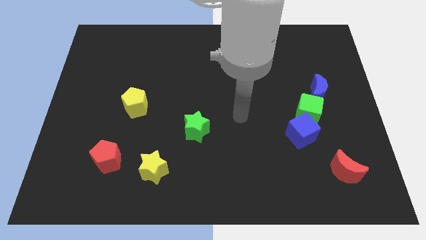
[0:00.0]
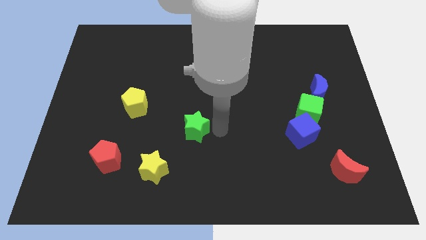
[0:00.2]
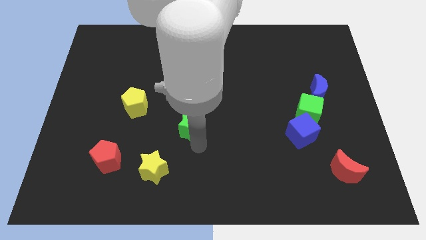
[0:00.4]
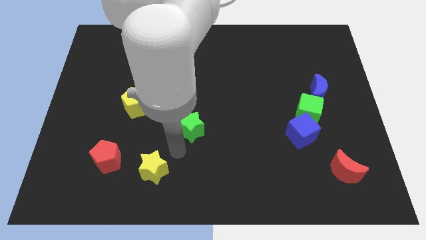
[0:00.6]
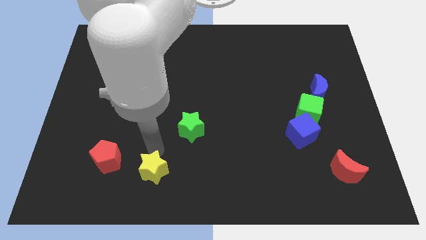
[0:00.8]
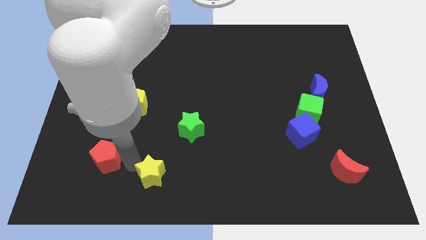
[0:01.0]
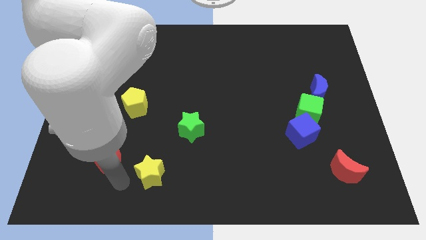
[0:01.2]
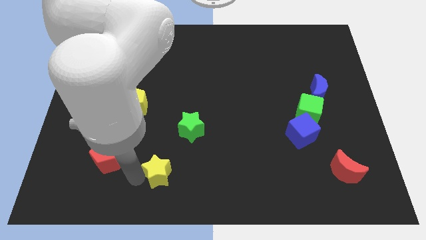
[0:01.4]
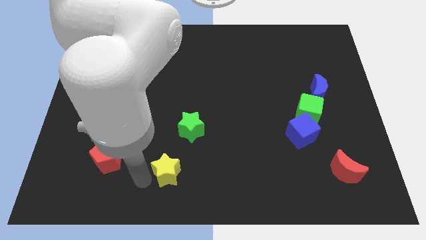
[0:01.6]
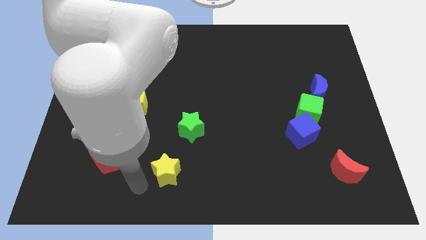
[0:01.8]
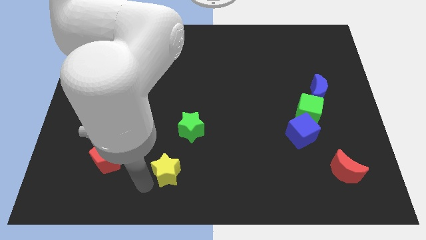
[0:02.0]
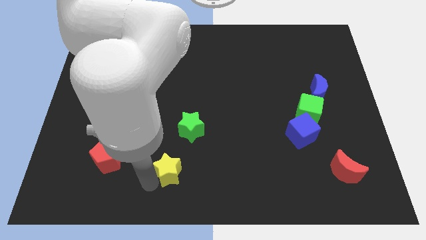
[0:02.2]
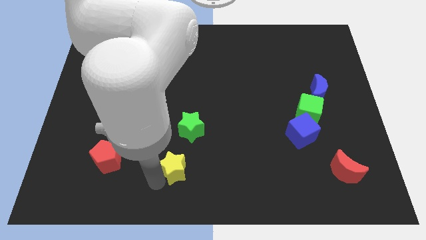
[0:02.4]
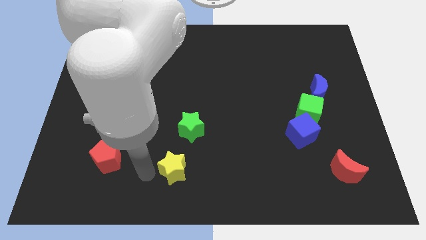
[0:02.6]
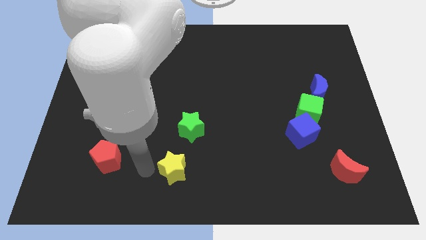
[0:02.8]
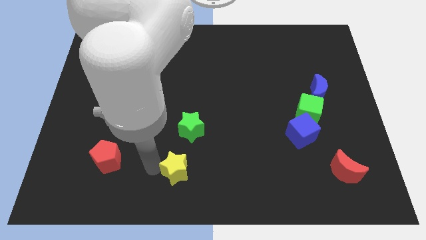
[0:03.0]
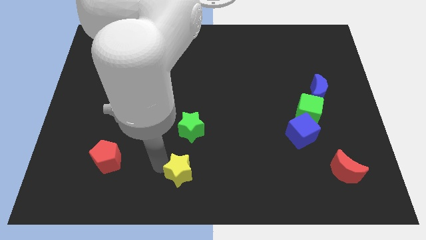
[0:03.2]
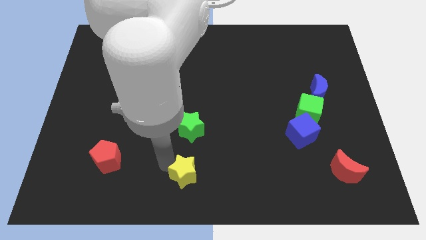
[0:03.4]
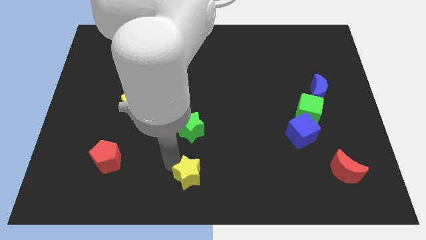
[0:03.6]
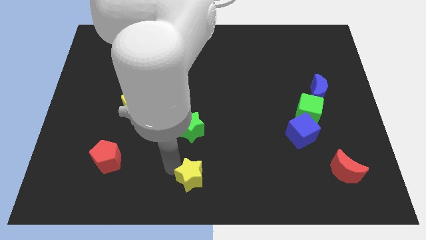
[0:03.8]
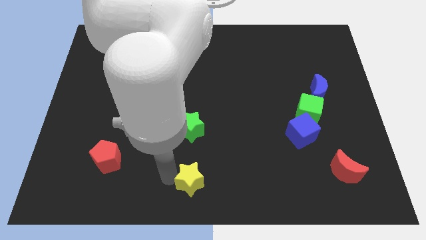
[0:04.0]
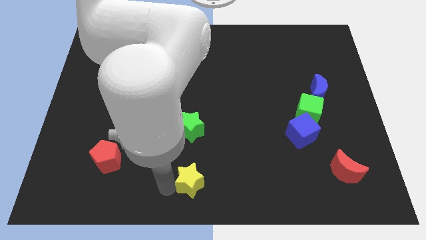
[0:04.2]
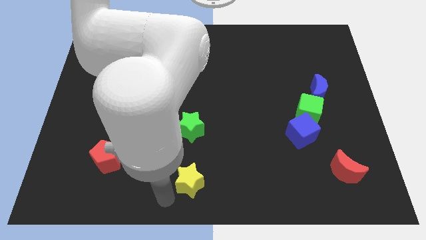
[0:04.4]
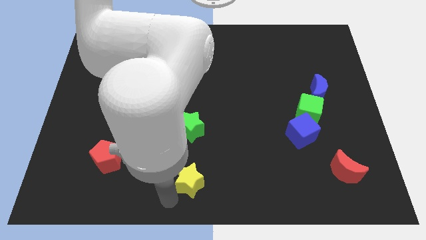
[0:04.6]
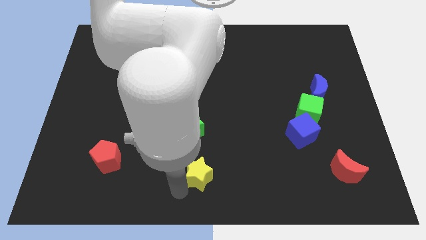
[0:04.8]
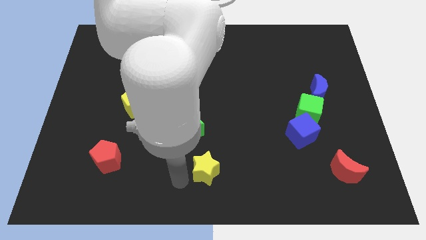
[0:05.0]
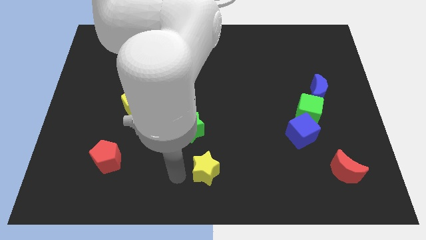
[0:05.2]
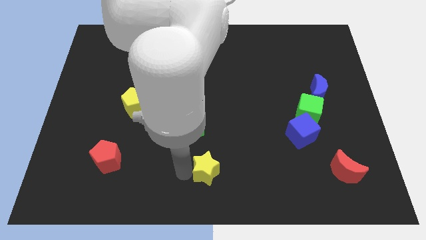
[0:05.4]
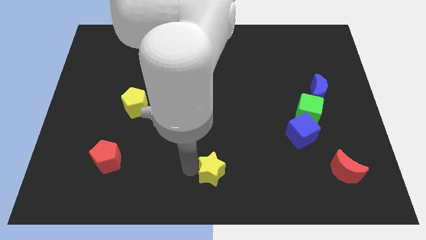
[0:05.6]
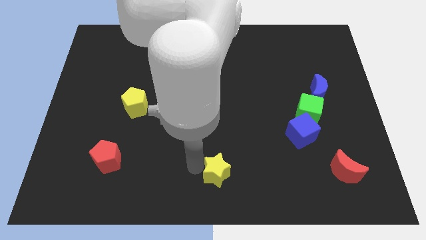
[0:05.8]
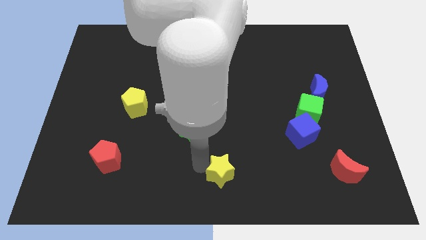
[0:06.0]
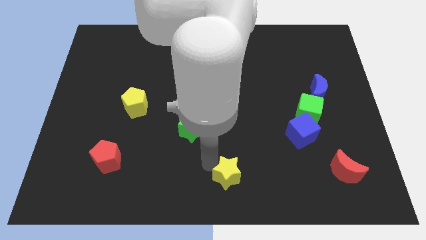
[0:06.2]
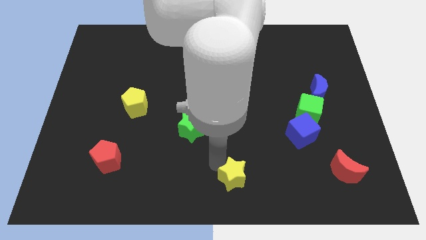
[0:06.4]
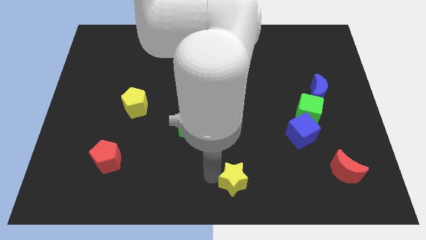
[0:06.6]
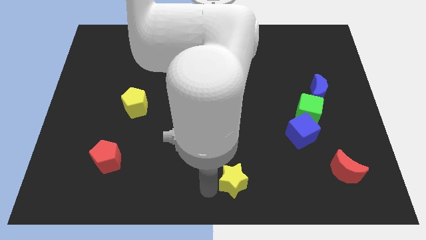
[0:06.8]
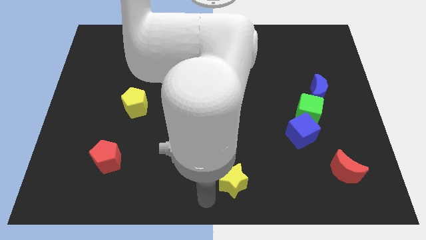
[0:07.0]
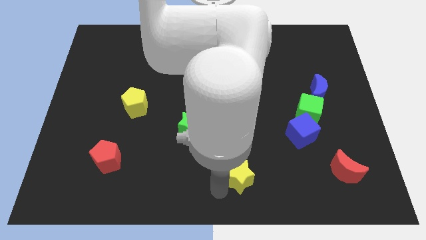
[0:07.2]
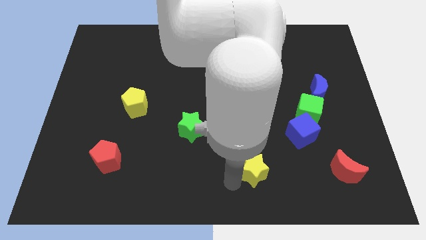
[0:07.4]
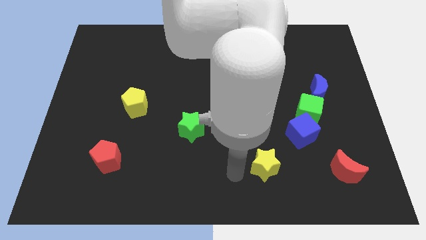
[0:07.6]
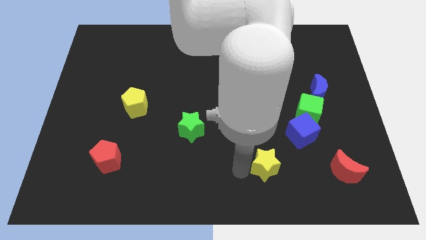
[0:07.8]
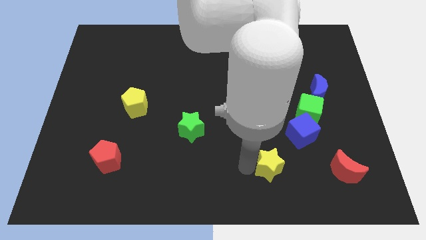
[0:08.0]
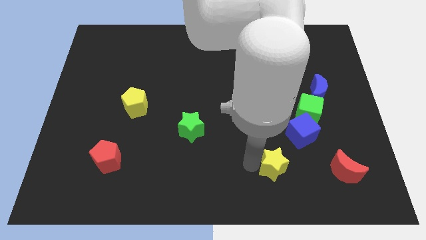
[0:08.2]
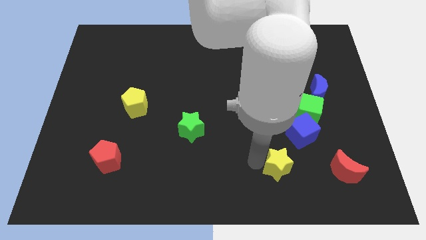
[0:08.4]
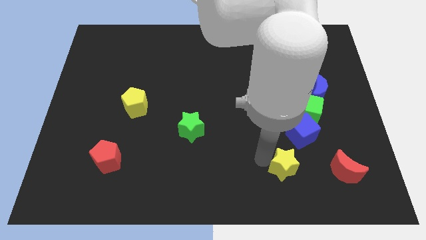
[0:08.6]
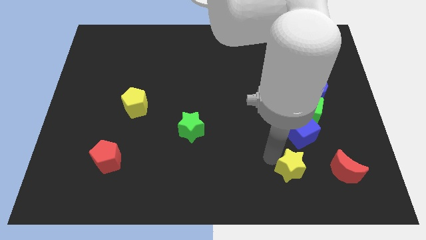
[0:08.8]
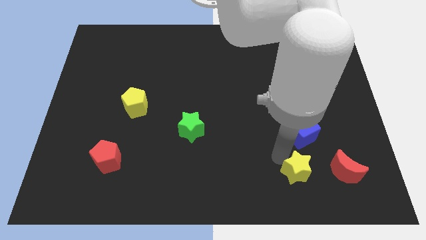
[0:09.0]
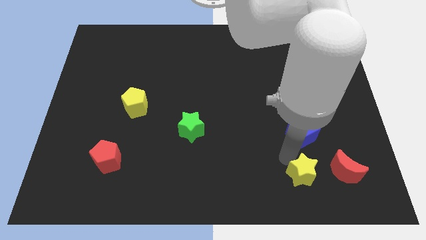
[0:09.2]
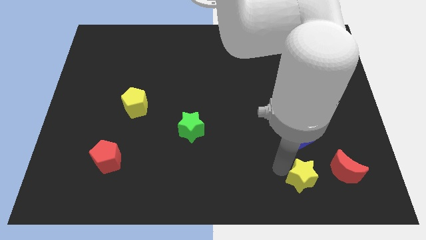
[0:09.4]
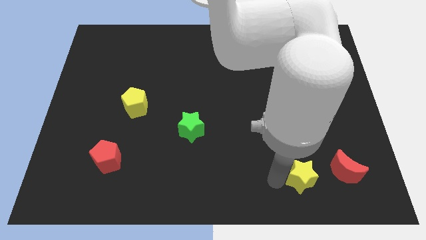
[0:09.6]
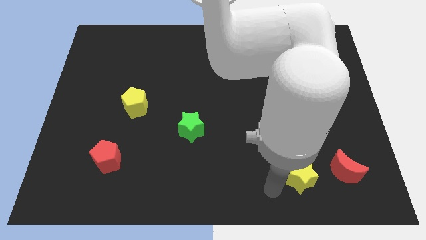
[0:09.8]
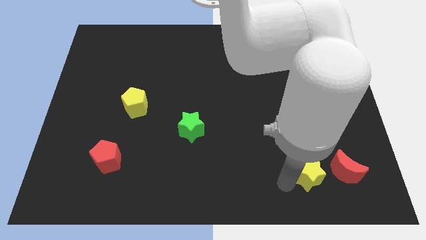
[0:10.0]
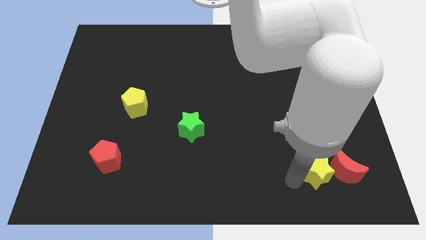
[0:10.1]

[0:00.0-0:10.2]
put the yellow star close to the red moon

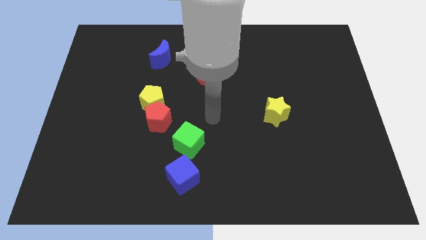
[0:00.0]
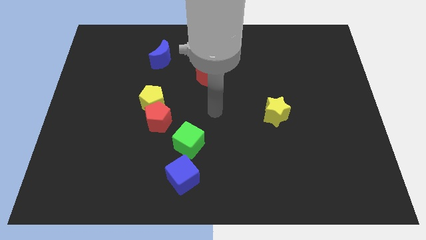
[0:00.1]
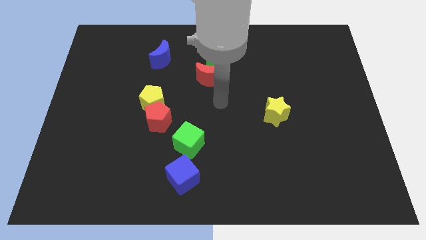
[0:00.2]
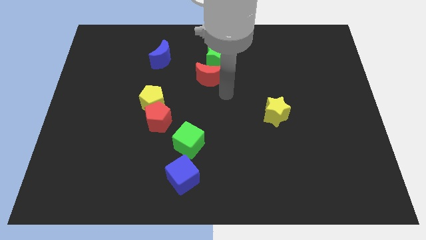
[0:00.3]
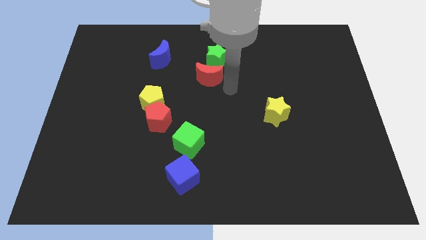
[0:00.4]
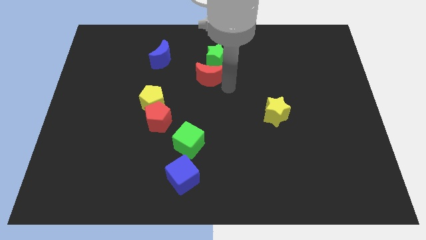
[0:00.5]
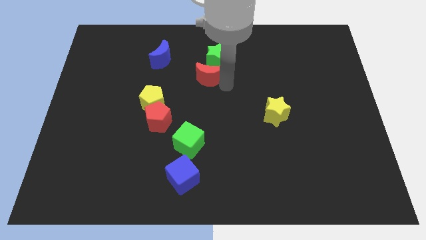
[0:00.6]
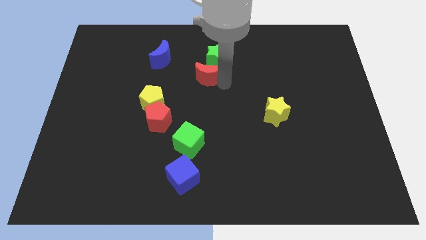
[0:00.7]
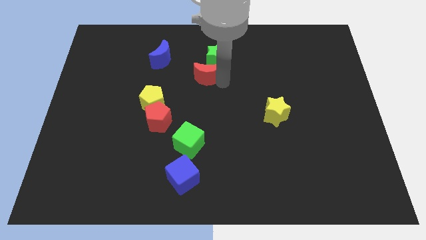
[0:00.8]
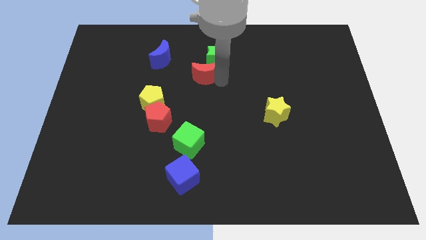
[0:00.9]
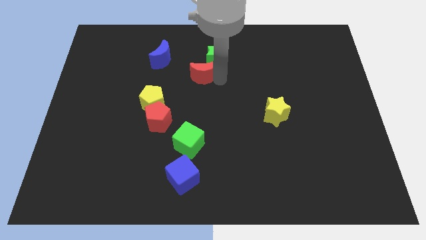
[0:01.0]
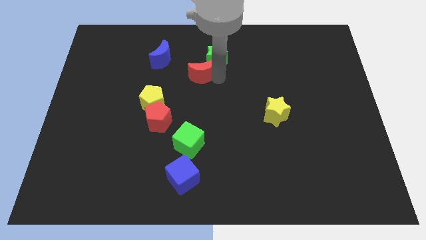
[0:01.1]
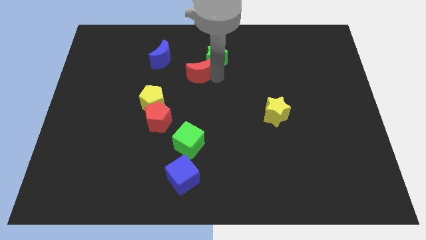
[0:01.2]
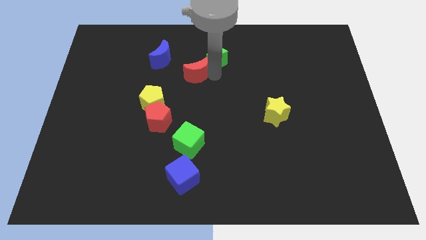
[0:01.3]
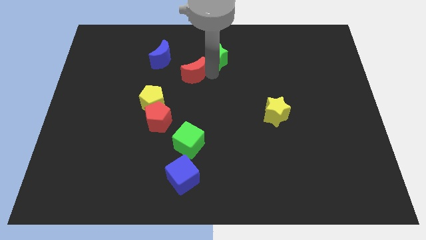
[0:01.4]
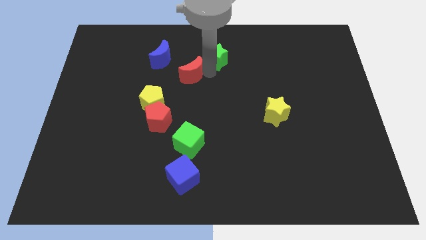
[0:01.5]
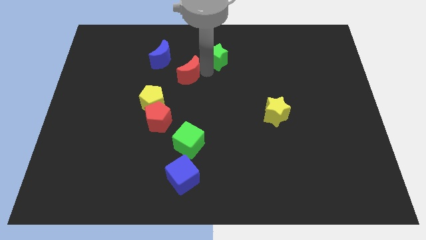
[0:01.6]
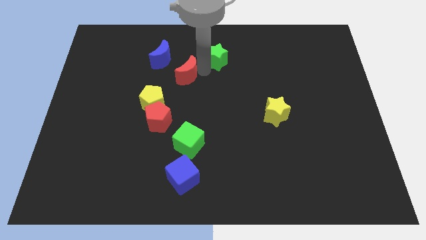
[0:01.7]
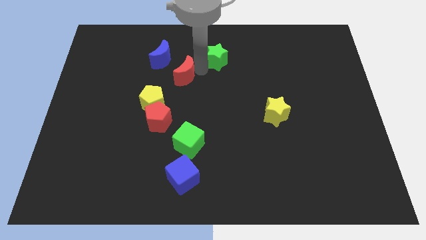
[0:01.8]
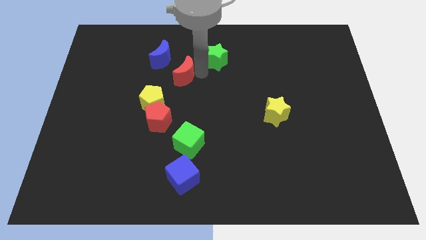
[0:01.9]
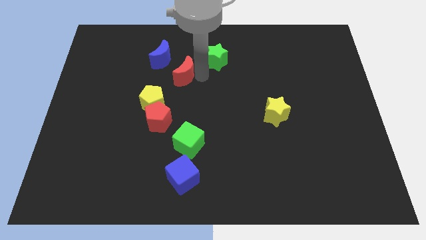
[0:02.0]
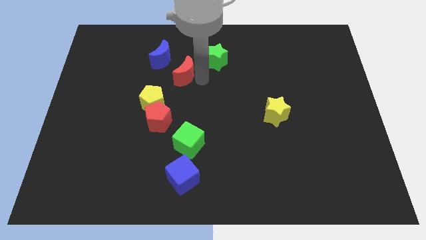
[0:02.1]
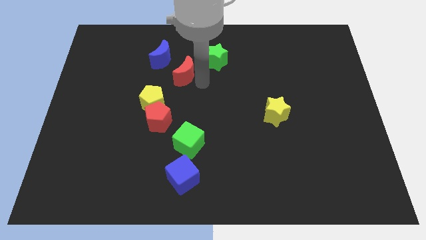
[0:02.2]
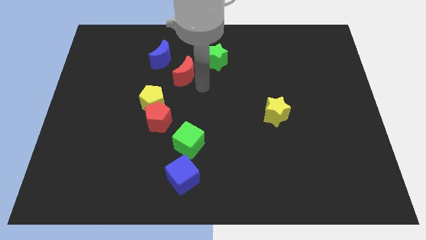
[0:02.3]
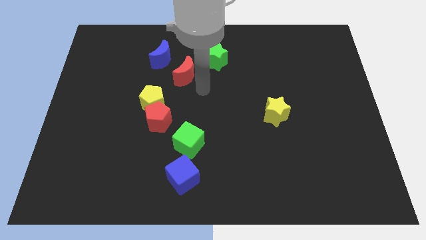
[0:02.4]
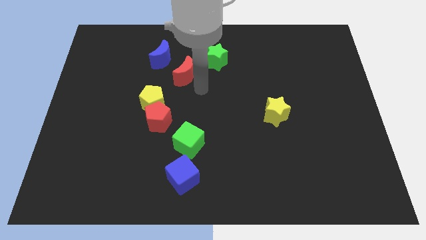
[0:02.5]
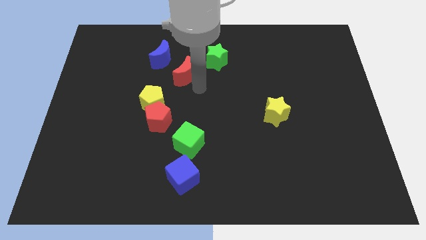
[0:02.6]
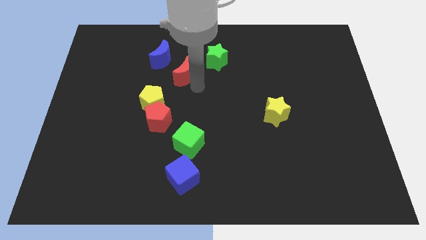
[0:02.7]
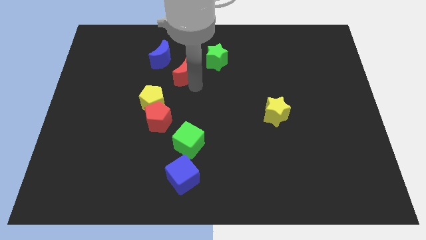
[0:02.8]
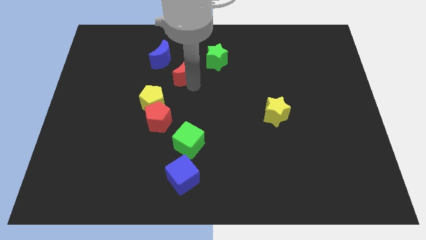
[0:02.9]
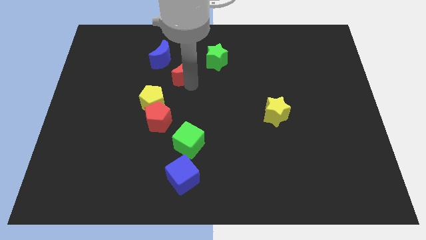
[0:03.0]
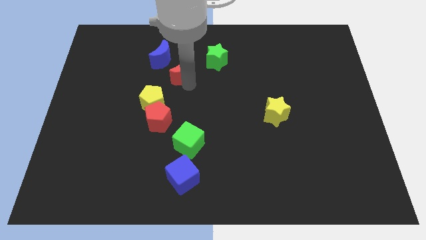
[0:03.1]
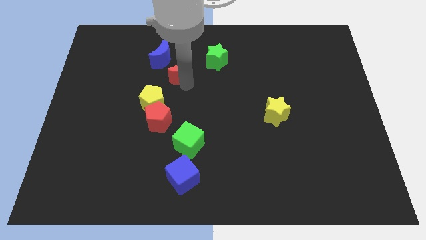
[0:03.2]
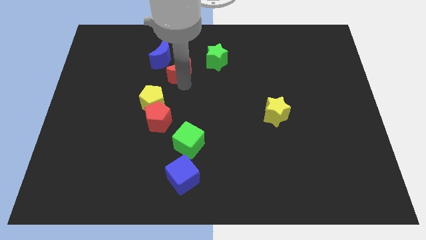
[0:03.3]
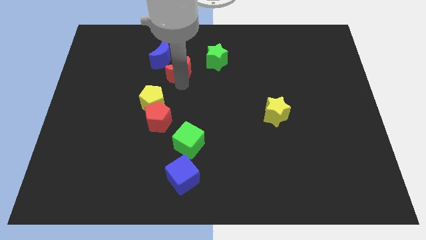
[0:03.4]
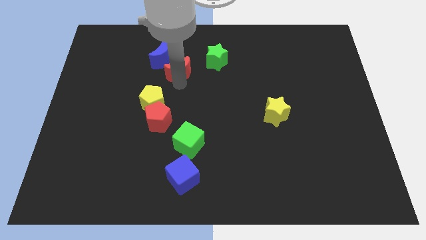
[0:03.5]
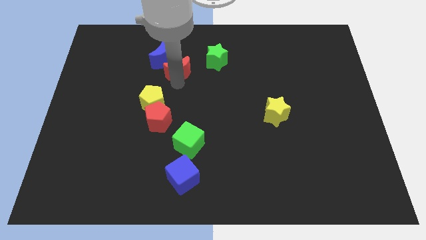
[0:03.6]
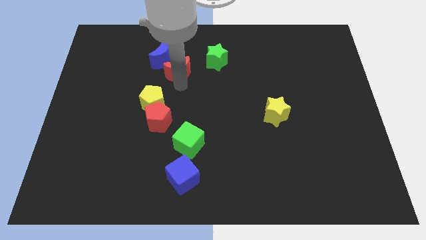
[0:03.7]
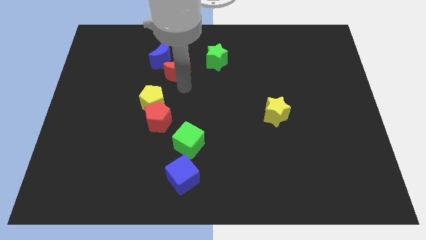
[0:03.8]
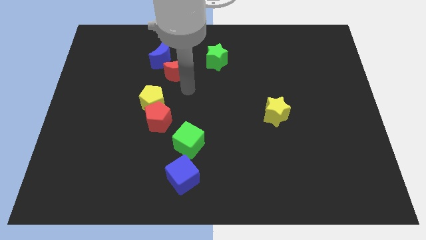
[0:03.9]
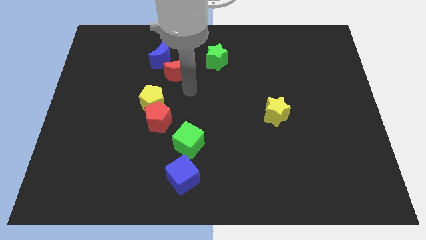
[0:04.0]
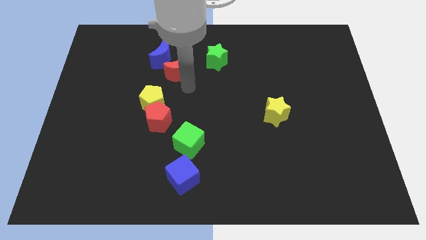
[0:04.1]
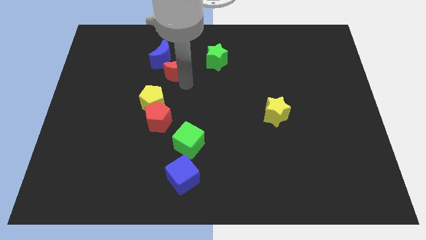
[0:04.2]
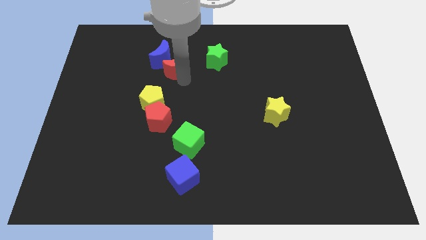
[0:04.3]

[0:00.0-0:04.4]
slide the red moon close to the blue moon
